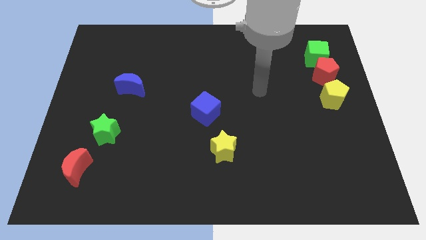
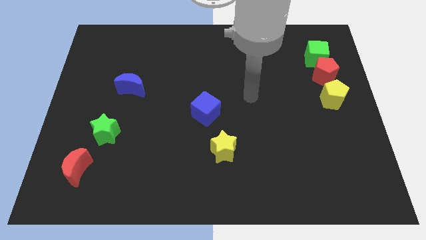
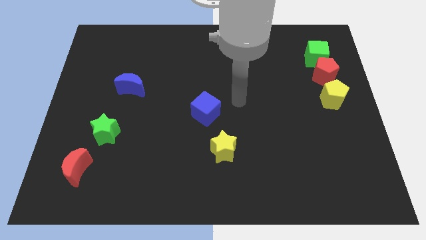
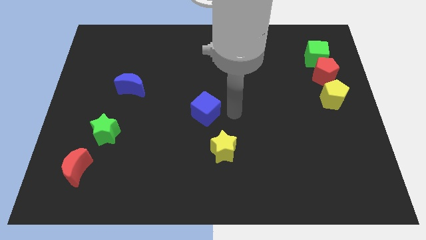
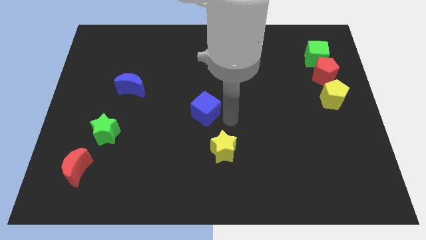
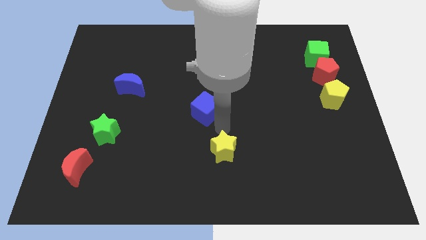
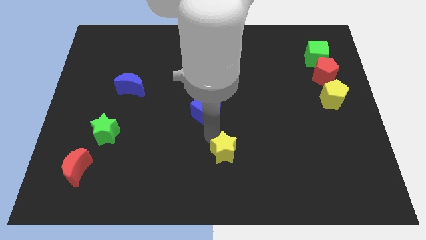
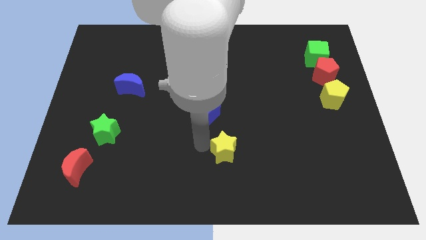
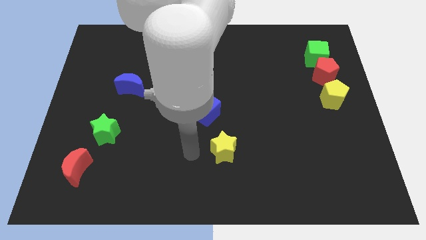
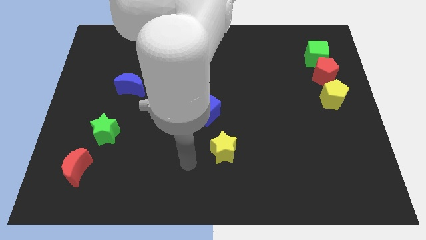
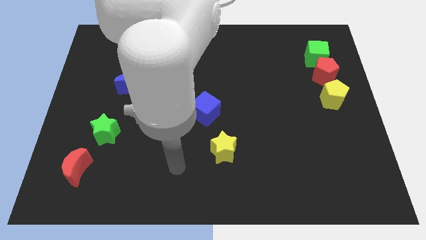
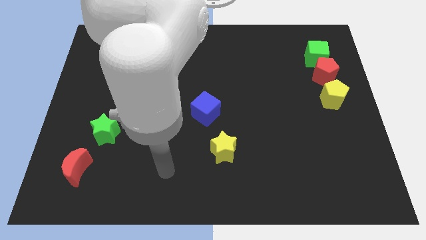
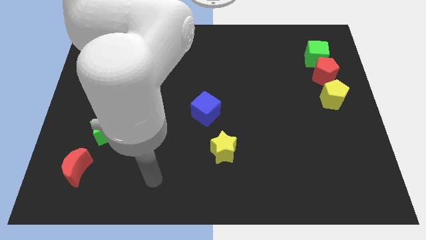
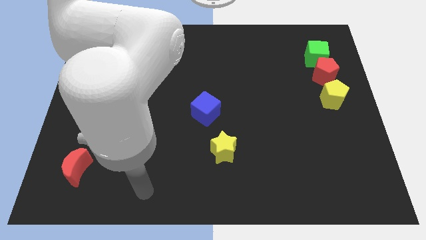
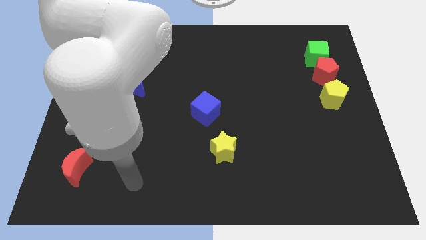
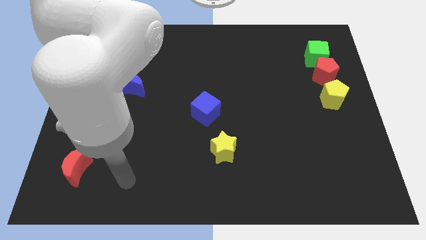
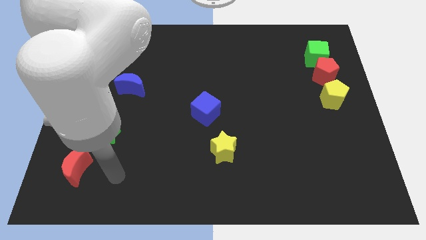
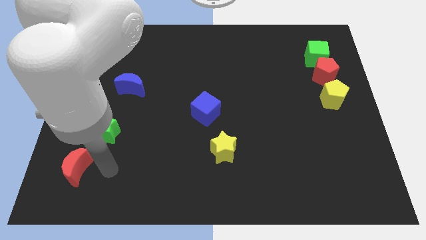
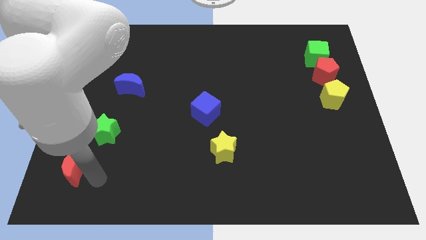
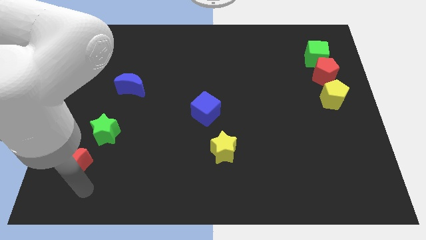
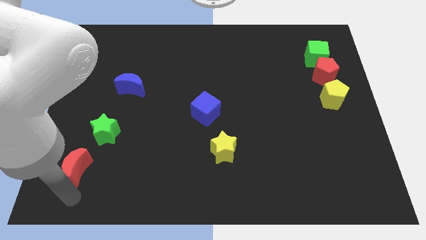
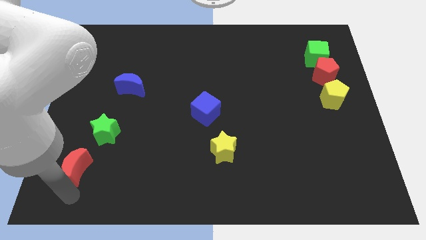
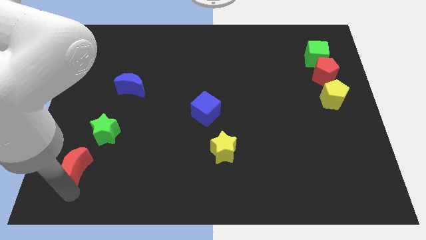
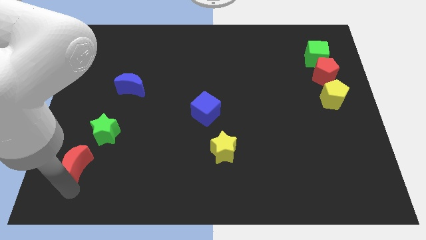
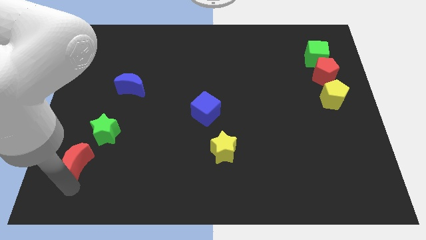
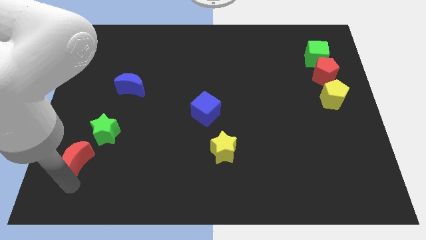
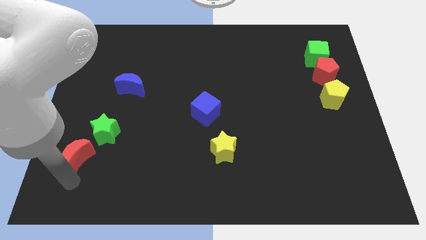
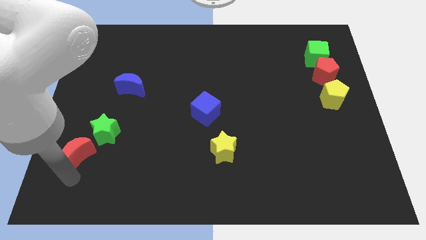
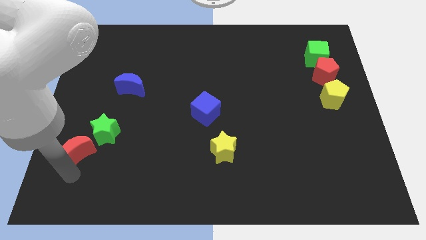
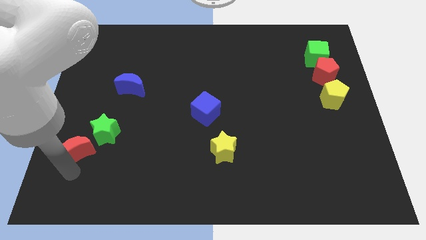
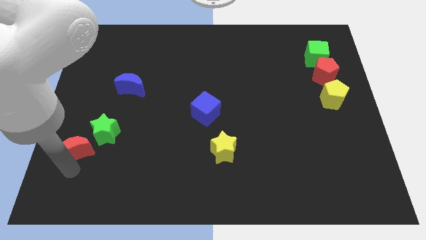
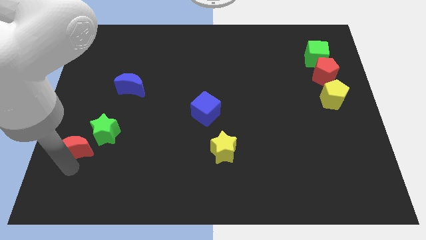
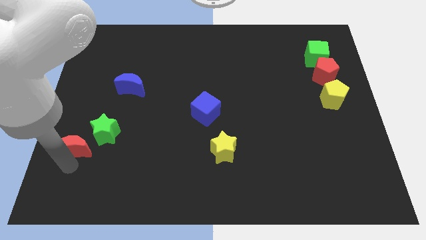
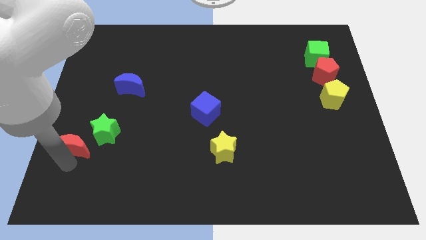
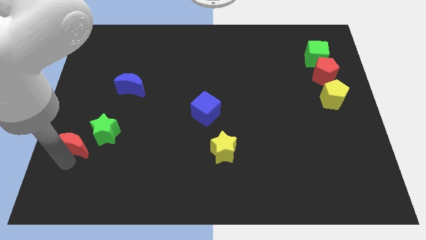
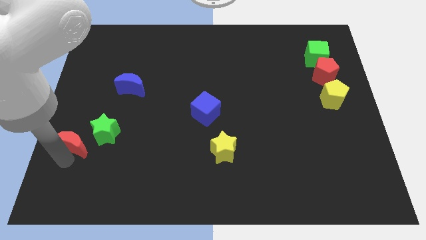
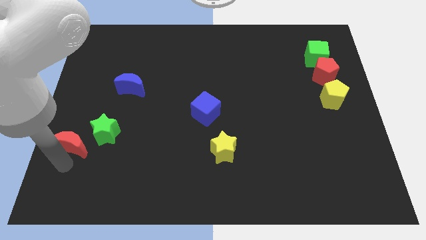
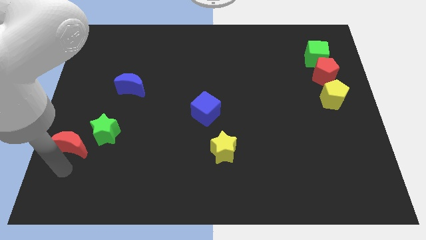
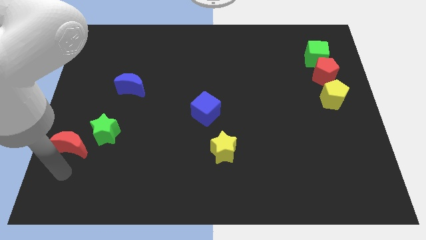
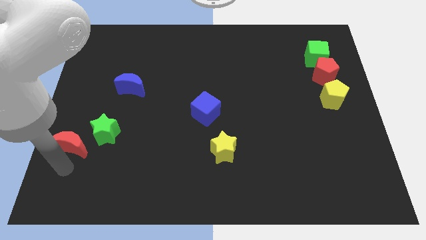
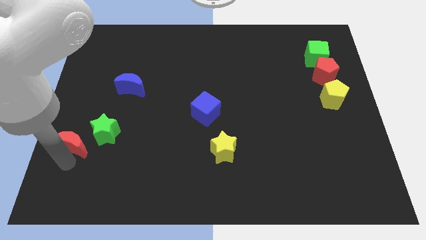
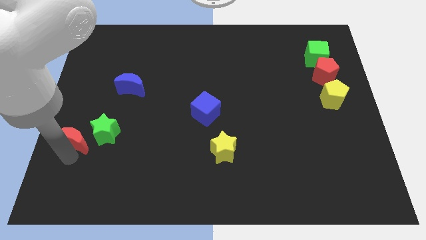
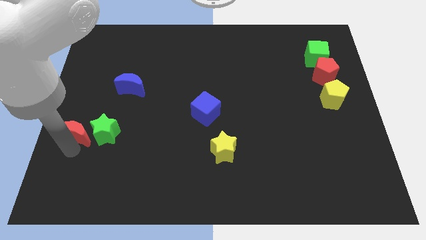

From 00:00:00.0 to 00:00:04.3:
slightly slide the red moon up

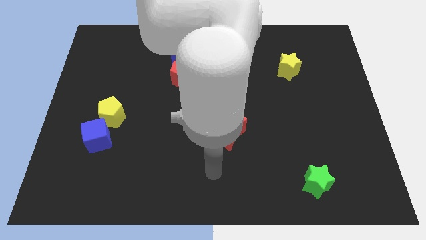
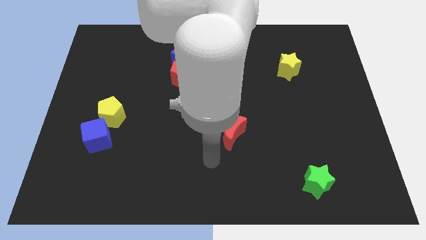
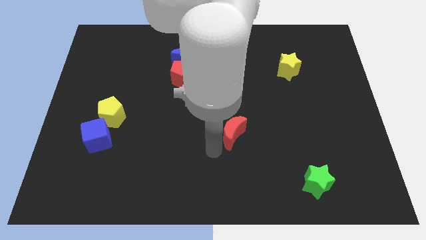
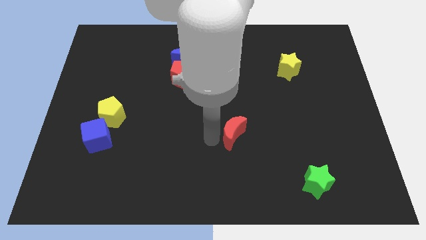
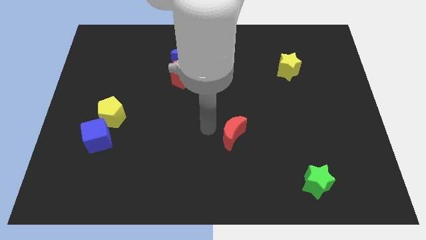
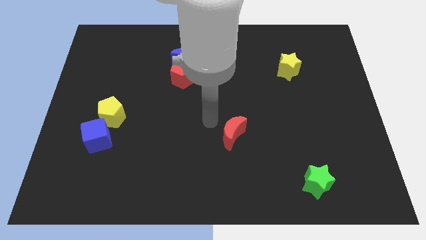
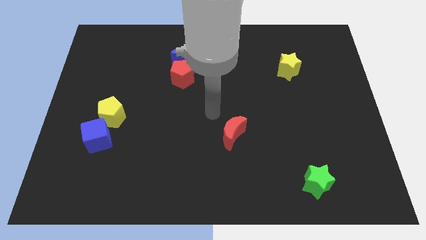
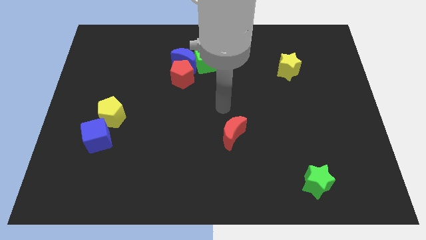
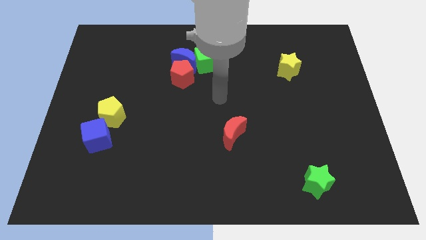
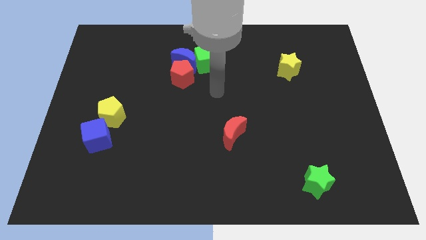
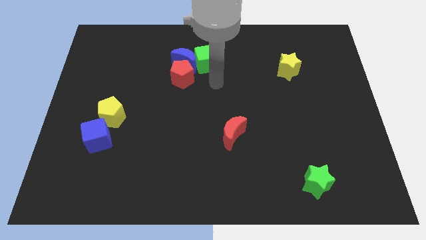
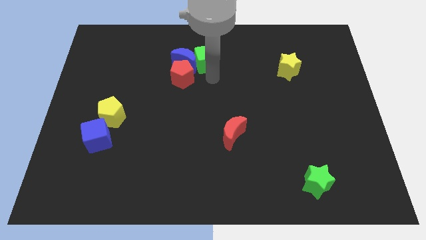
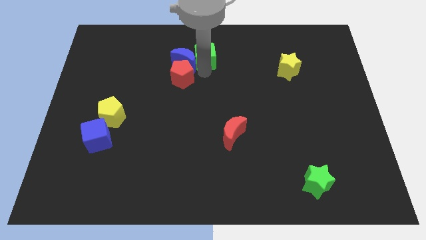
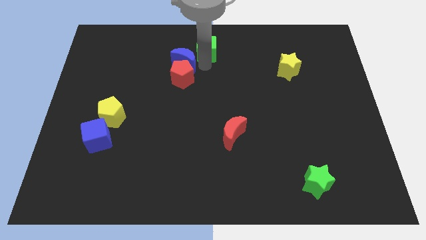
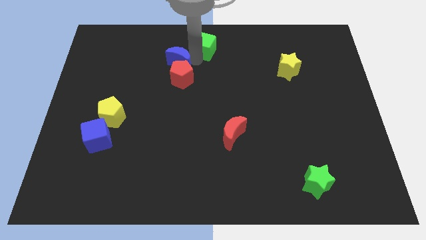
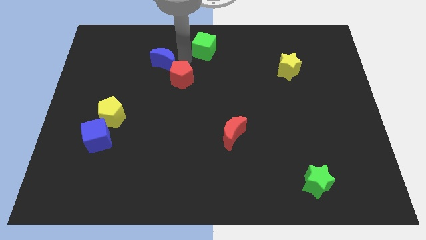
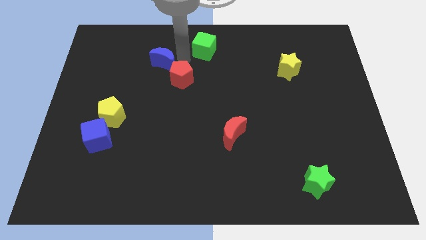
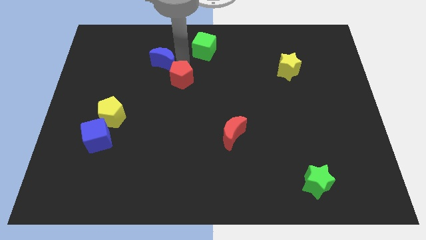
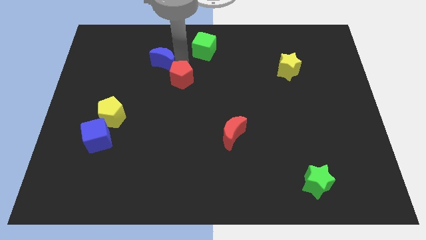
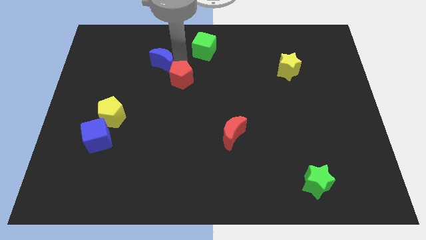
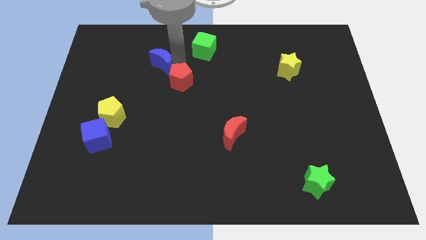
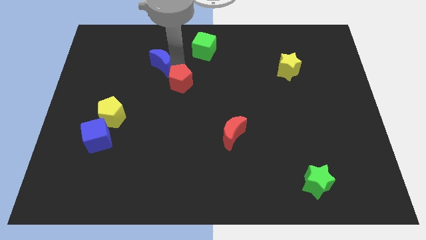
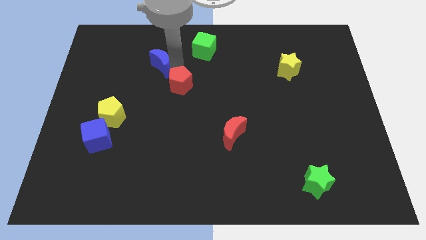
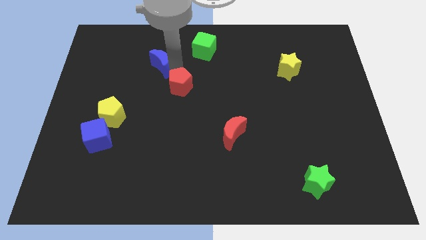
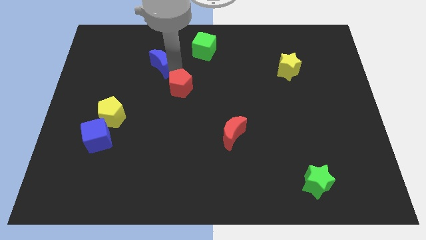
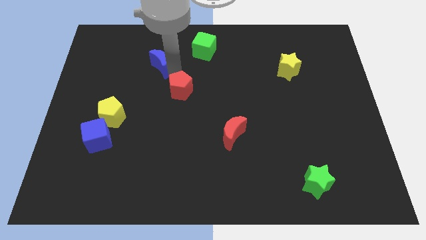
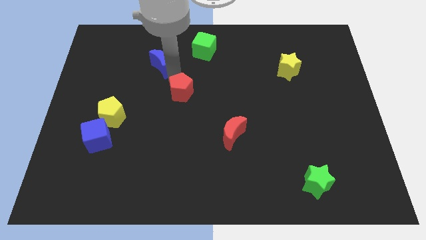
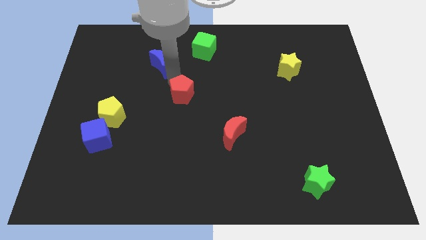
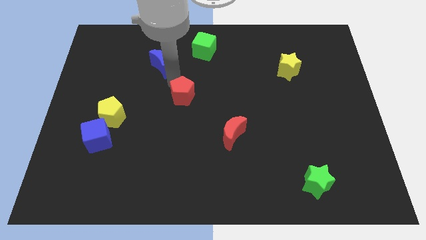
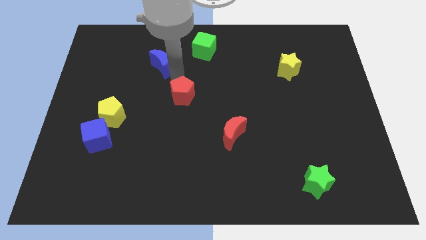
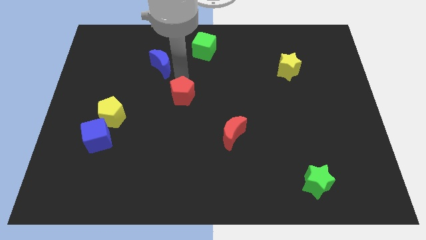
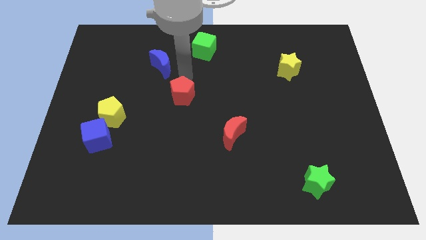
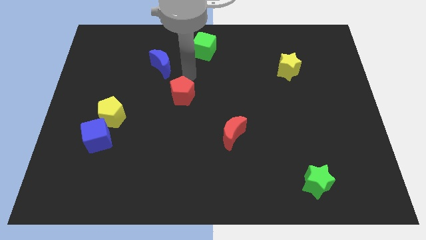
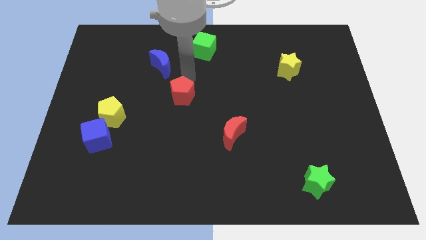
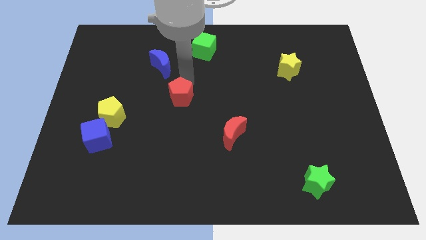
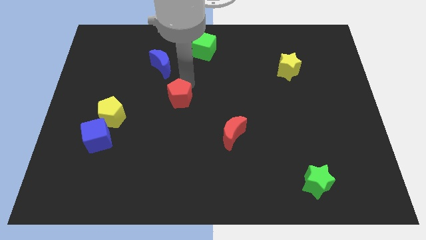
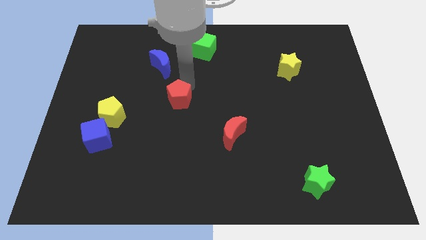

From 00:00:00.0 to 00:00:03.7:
move the red pentagon down slightly

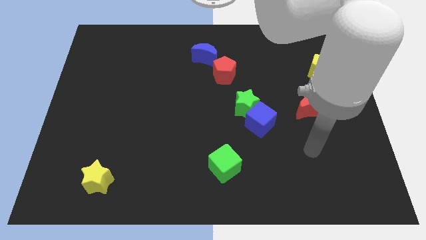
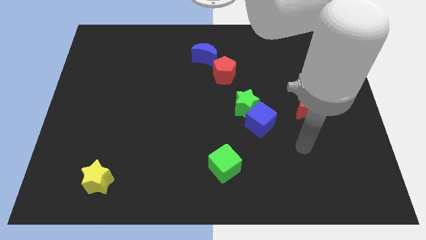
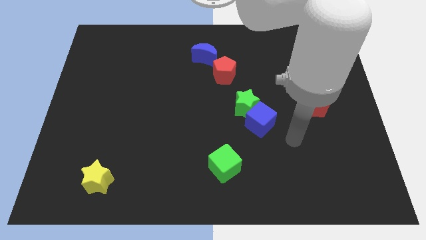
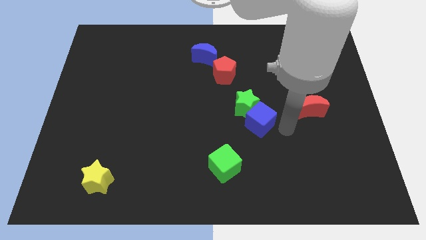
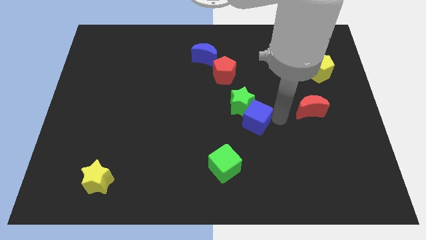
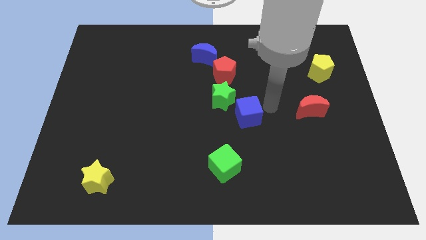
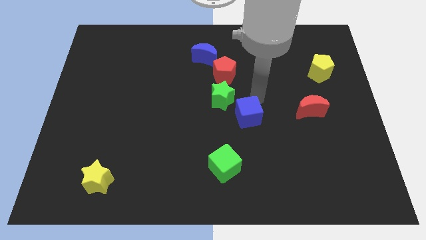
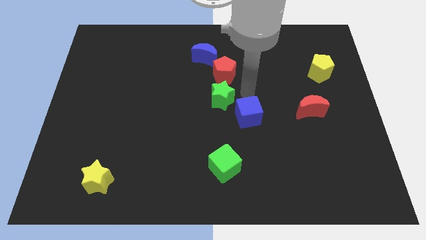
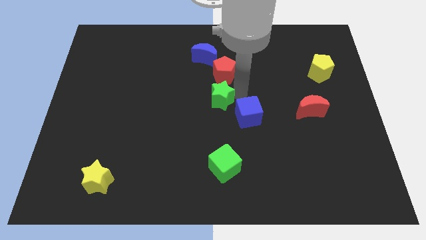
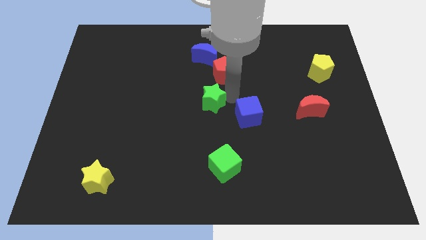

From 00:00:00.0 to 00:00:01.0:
slightly move the green star to the left
